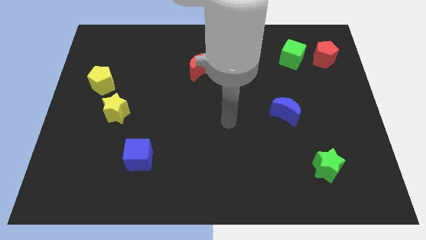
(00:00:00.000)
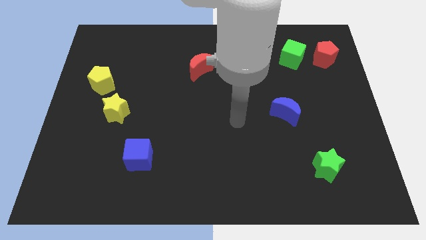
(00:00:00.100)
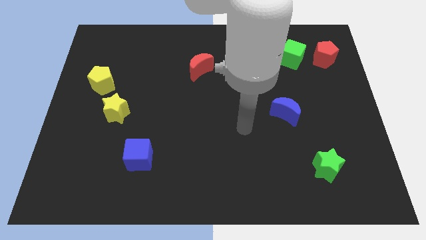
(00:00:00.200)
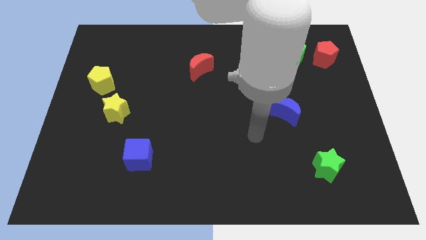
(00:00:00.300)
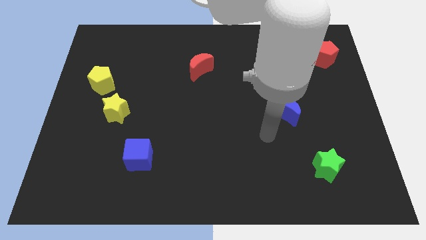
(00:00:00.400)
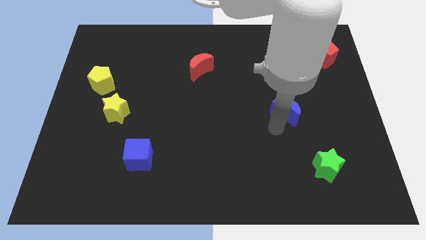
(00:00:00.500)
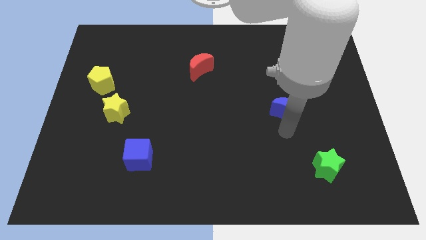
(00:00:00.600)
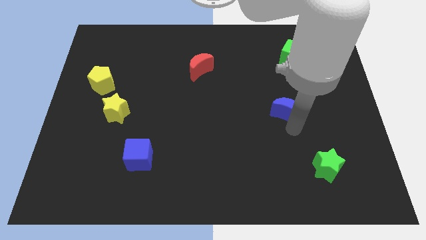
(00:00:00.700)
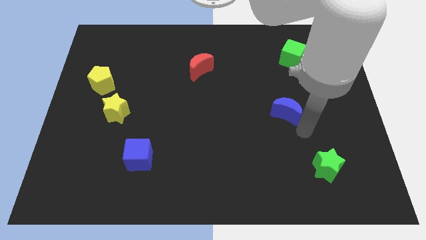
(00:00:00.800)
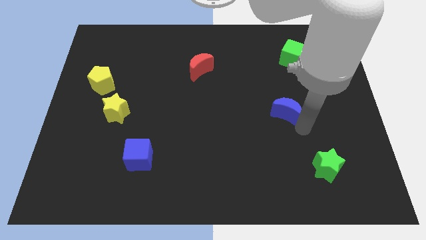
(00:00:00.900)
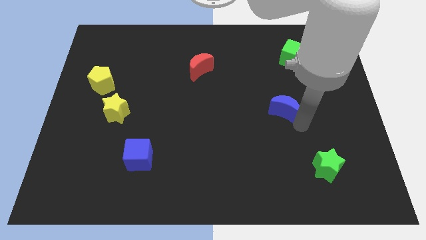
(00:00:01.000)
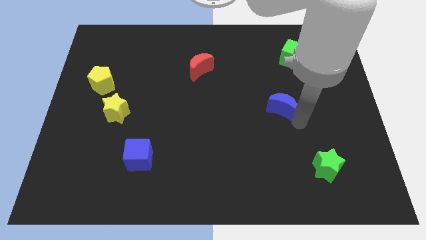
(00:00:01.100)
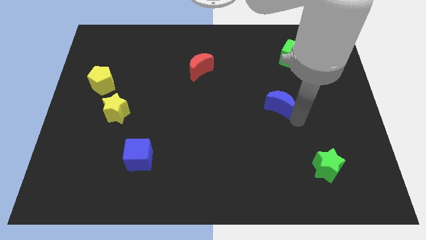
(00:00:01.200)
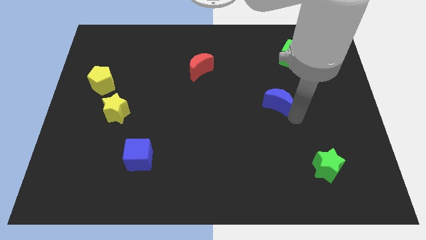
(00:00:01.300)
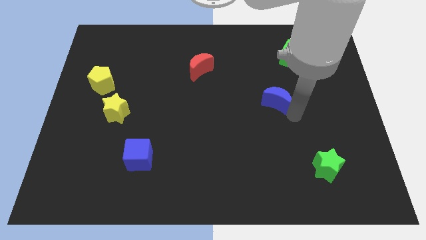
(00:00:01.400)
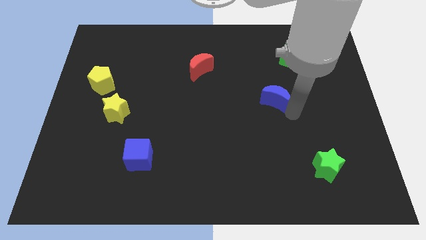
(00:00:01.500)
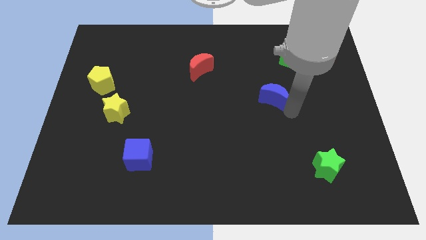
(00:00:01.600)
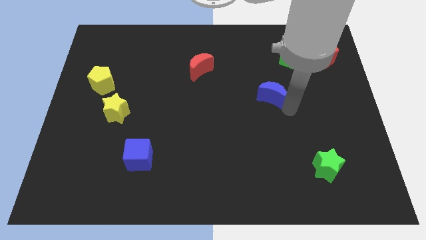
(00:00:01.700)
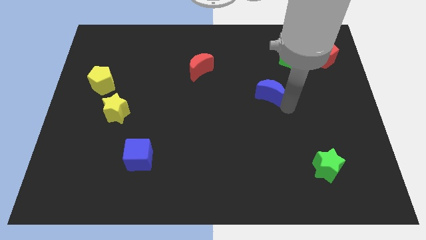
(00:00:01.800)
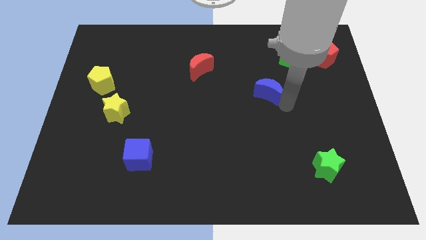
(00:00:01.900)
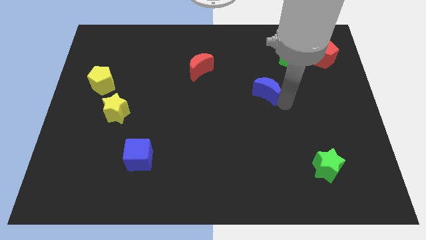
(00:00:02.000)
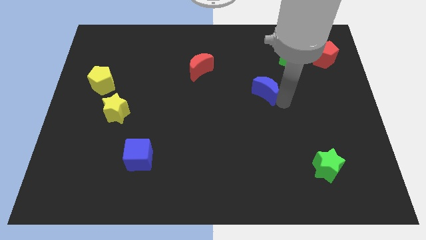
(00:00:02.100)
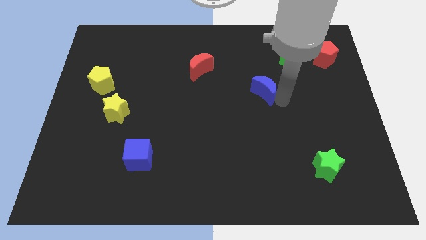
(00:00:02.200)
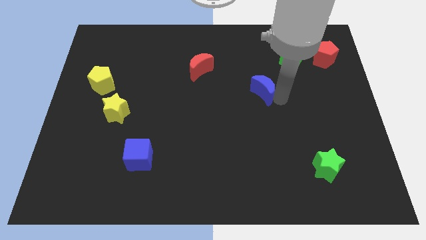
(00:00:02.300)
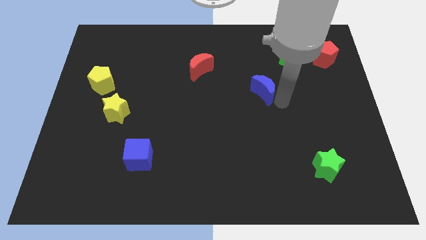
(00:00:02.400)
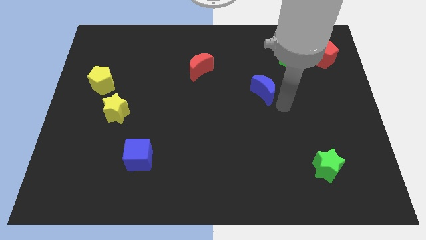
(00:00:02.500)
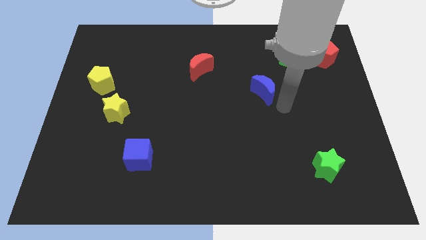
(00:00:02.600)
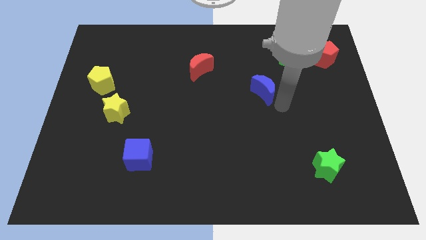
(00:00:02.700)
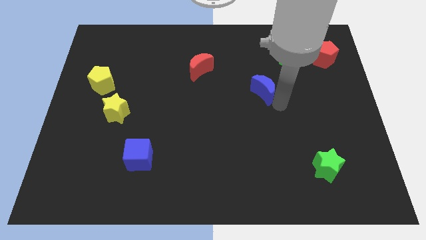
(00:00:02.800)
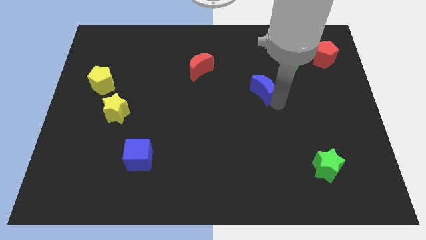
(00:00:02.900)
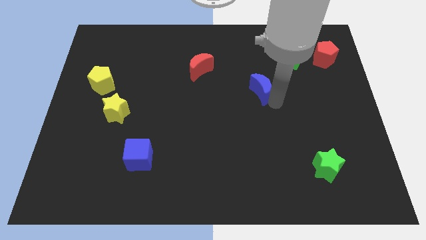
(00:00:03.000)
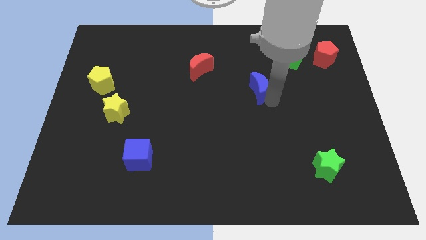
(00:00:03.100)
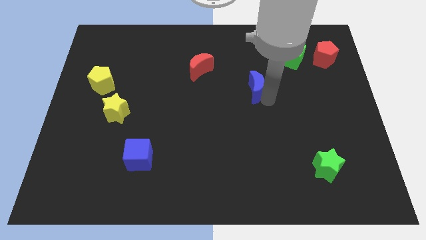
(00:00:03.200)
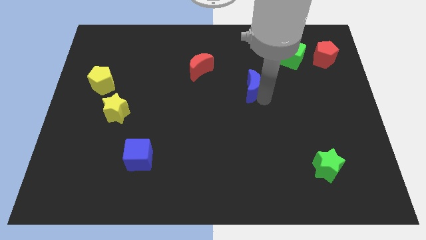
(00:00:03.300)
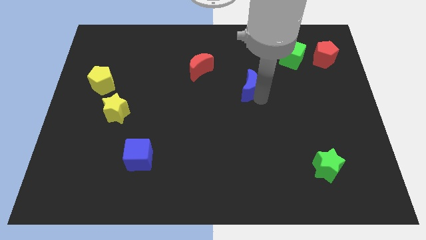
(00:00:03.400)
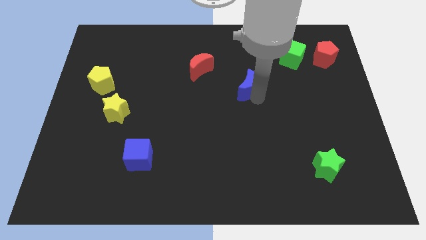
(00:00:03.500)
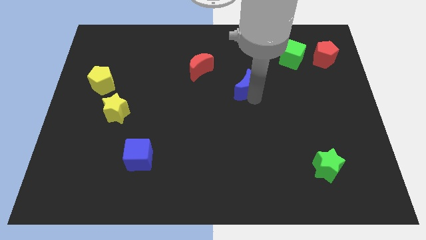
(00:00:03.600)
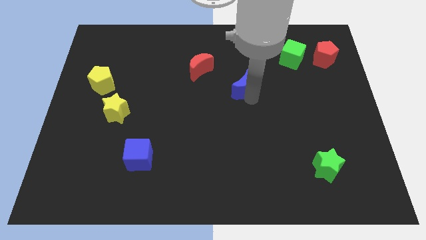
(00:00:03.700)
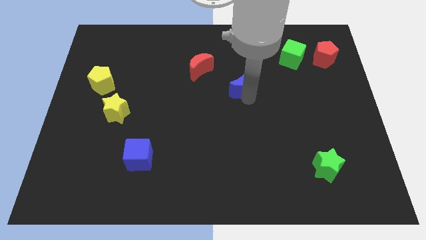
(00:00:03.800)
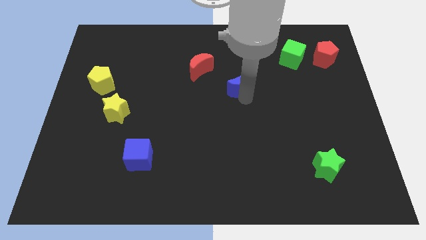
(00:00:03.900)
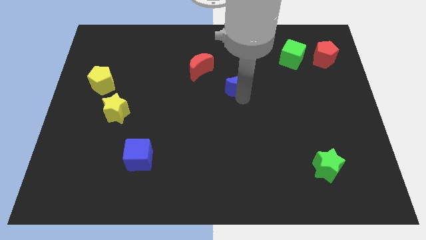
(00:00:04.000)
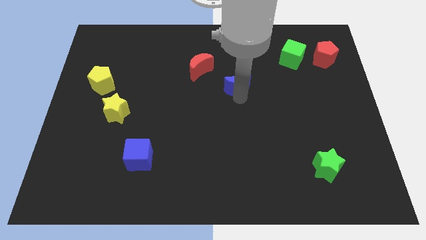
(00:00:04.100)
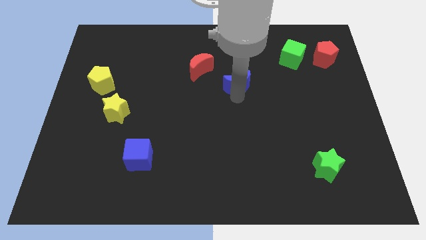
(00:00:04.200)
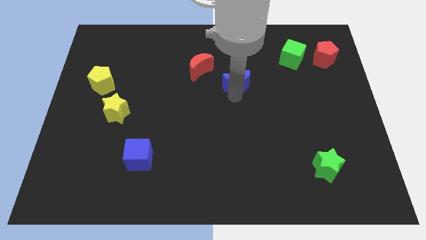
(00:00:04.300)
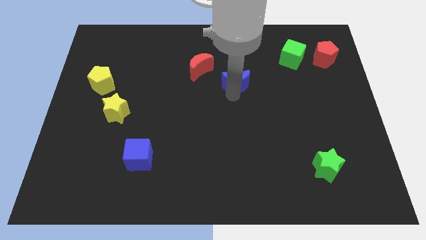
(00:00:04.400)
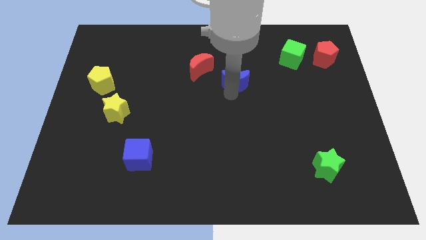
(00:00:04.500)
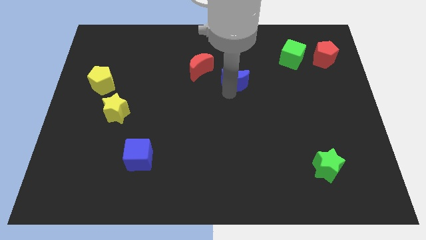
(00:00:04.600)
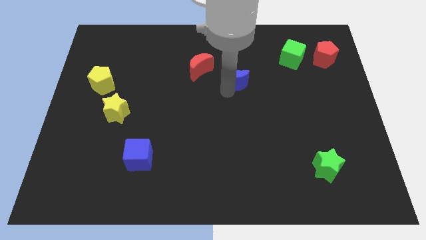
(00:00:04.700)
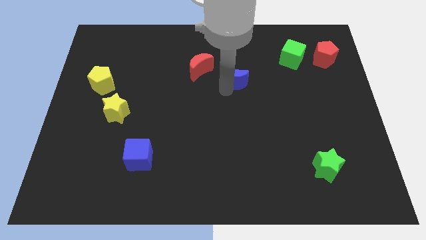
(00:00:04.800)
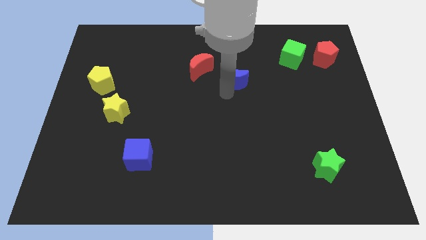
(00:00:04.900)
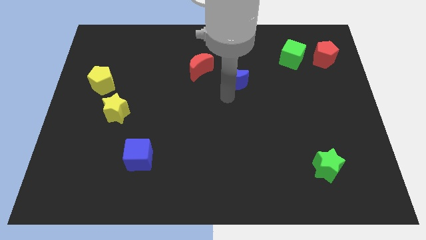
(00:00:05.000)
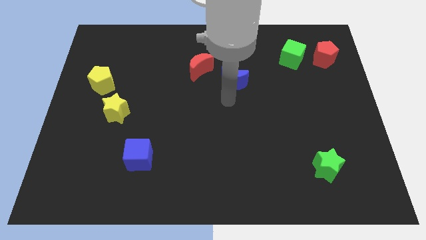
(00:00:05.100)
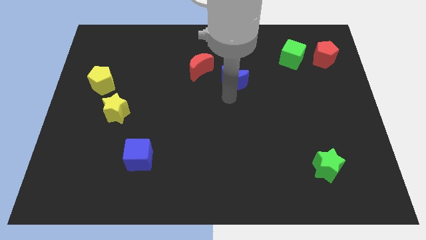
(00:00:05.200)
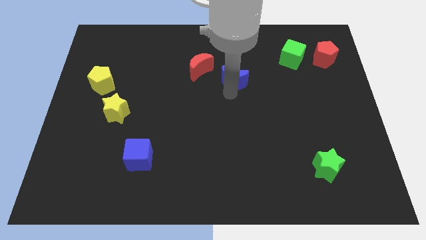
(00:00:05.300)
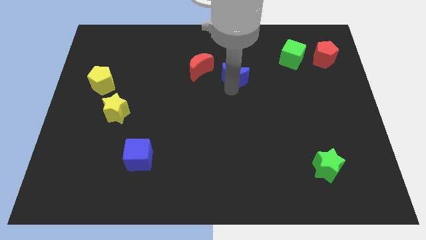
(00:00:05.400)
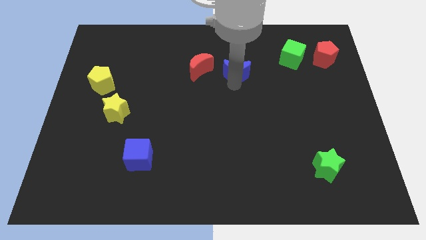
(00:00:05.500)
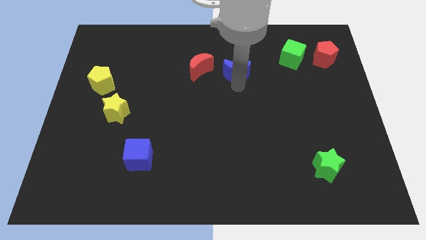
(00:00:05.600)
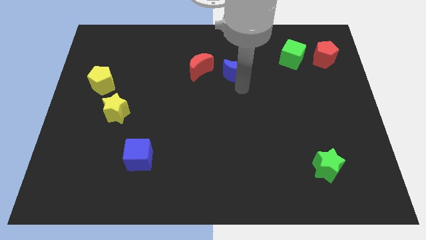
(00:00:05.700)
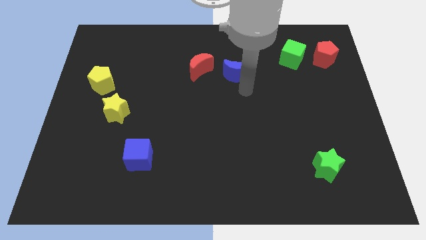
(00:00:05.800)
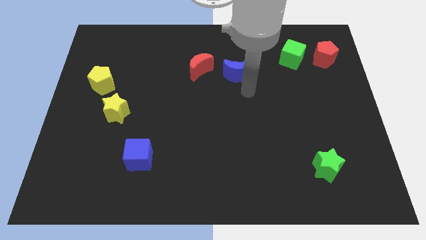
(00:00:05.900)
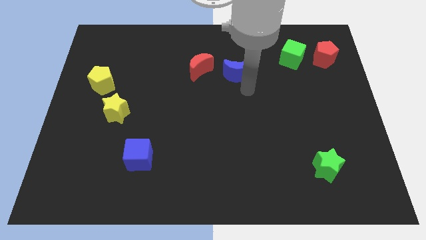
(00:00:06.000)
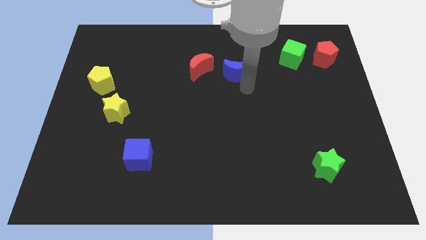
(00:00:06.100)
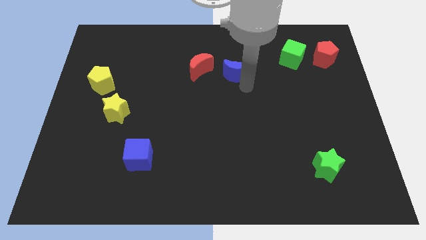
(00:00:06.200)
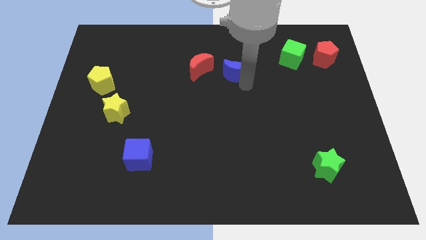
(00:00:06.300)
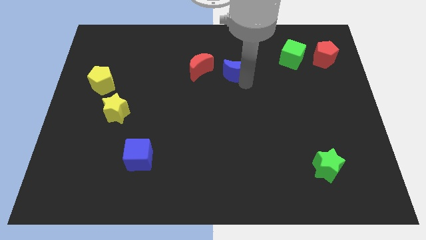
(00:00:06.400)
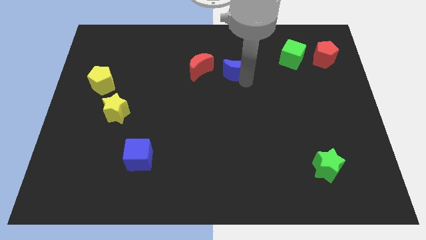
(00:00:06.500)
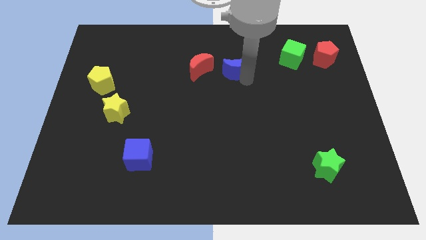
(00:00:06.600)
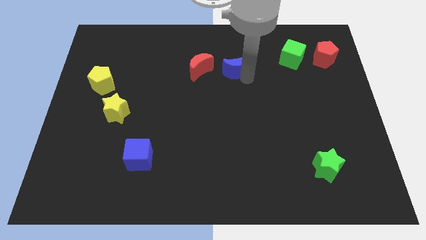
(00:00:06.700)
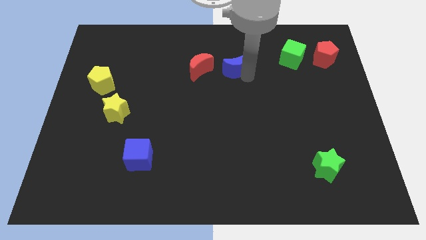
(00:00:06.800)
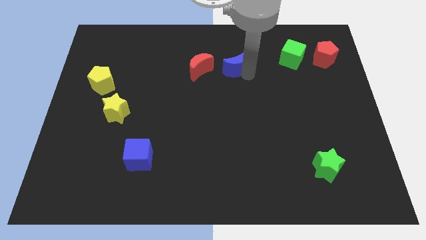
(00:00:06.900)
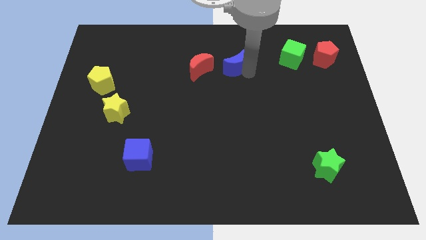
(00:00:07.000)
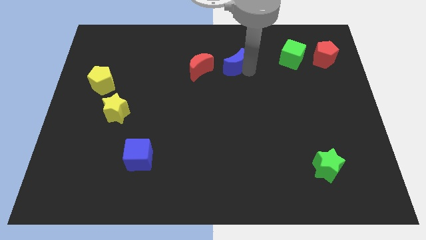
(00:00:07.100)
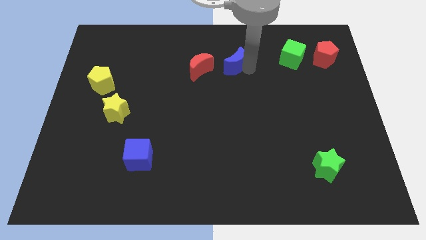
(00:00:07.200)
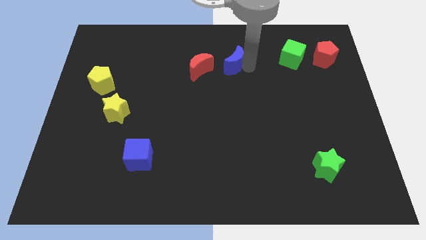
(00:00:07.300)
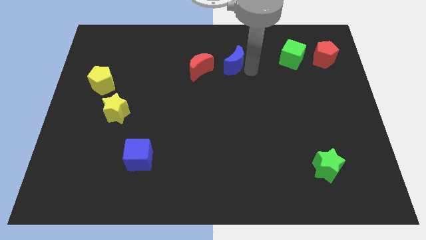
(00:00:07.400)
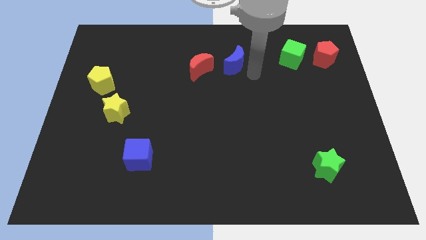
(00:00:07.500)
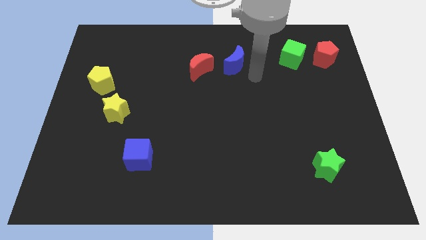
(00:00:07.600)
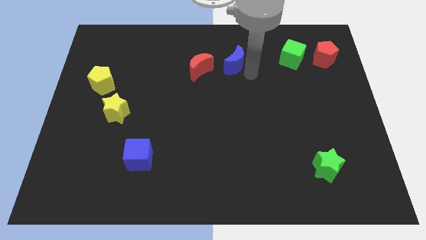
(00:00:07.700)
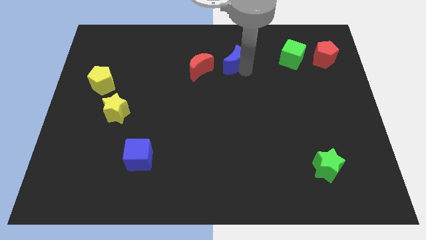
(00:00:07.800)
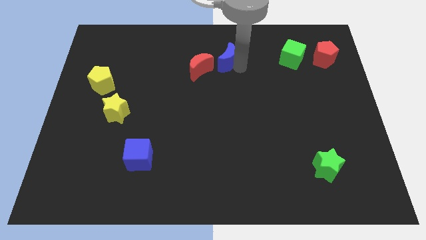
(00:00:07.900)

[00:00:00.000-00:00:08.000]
move the blue moon to the top right side of the red moon

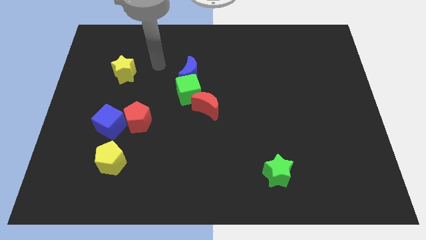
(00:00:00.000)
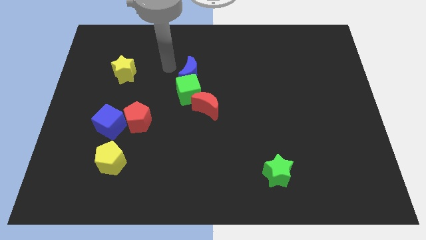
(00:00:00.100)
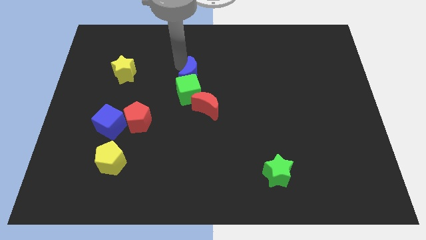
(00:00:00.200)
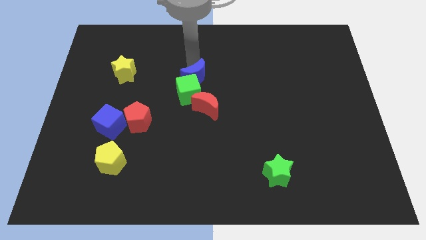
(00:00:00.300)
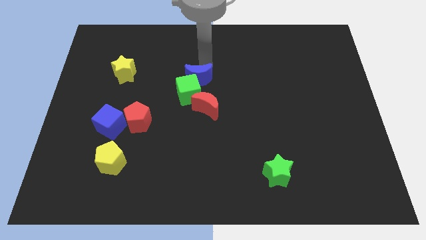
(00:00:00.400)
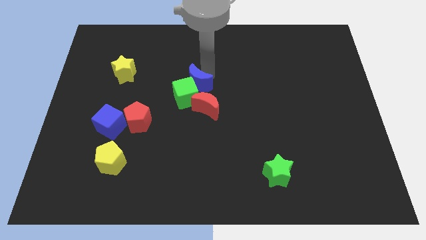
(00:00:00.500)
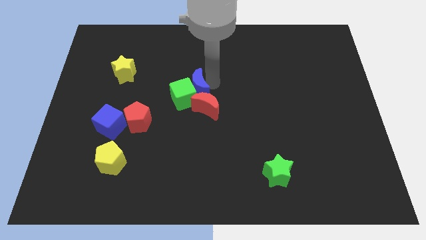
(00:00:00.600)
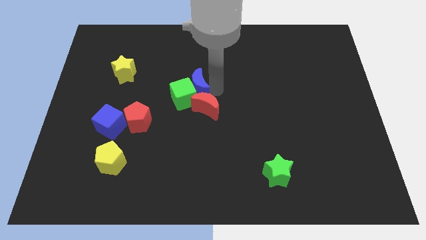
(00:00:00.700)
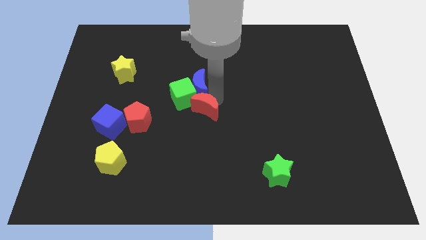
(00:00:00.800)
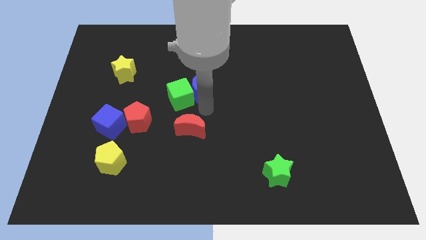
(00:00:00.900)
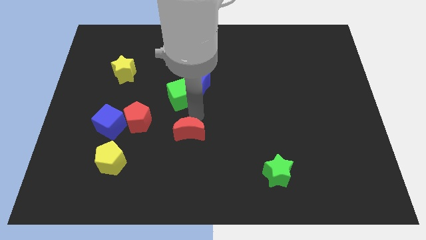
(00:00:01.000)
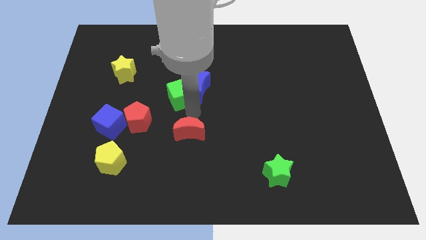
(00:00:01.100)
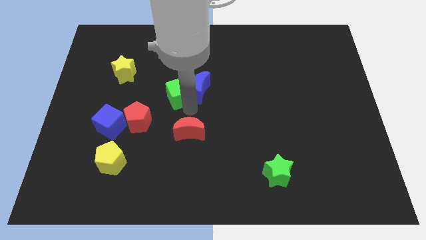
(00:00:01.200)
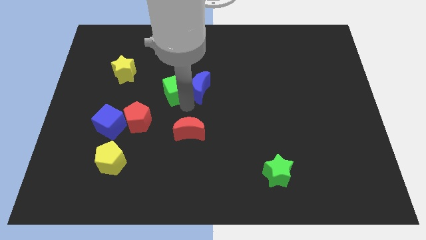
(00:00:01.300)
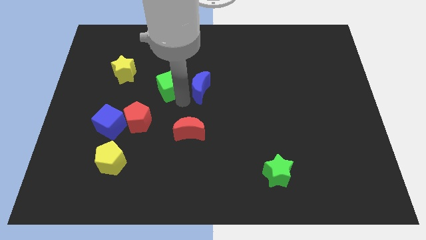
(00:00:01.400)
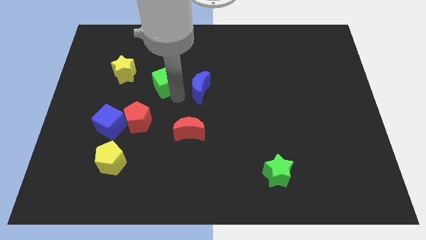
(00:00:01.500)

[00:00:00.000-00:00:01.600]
put the green cube right of the yellow star
